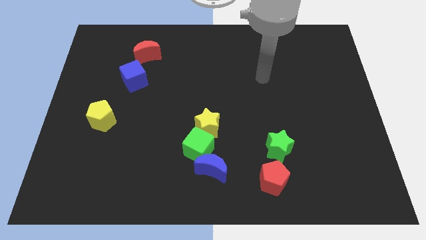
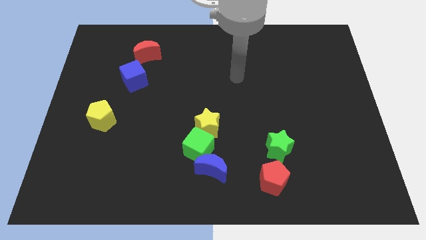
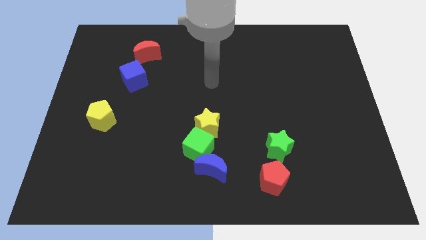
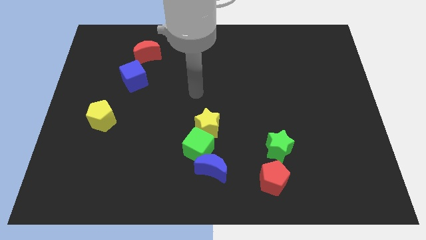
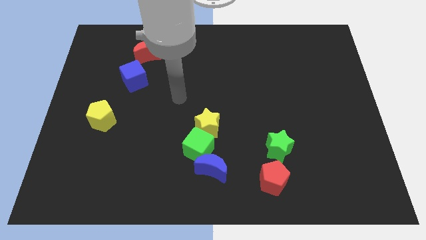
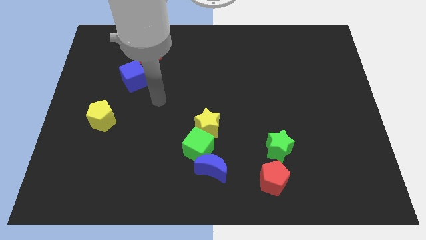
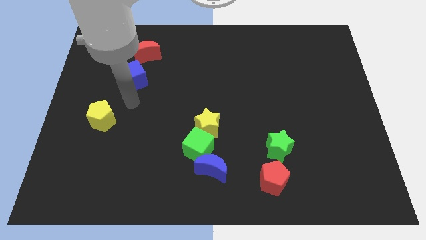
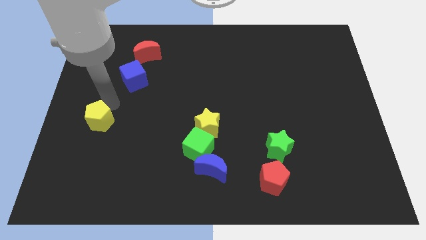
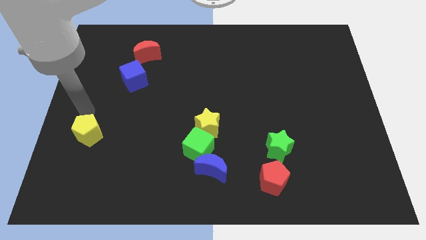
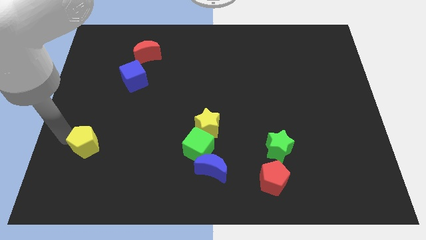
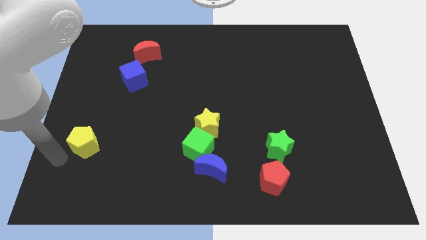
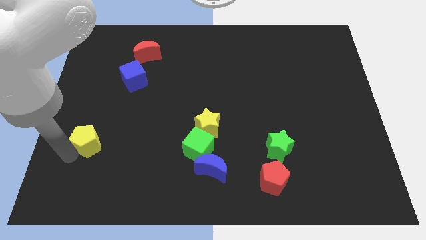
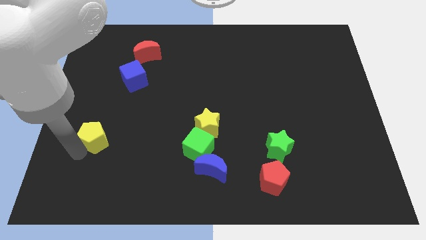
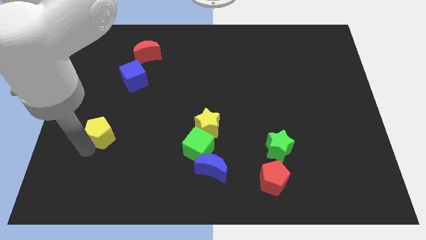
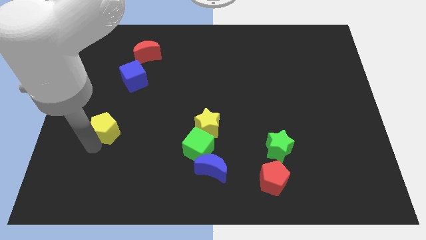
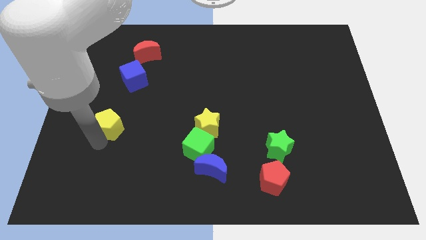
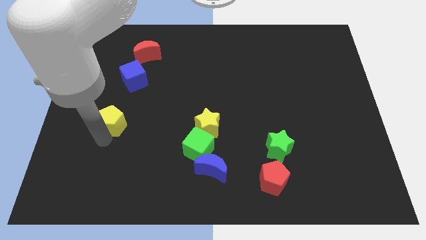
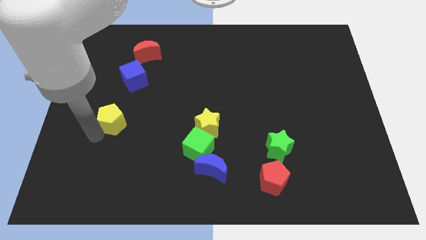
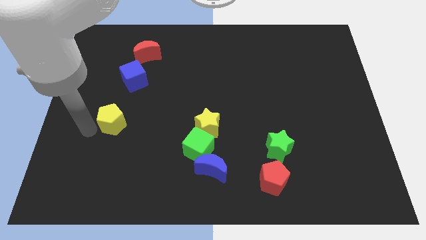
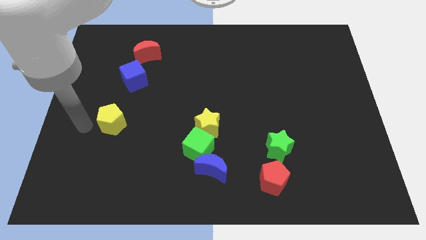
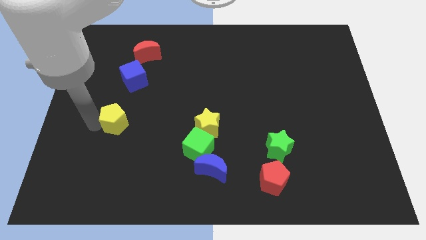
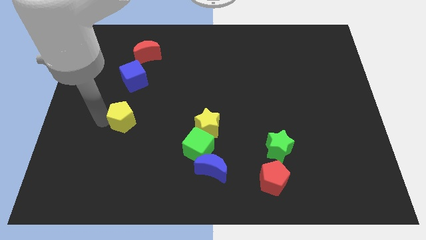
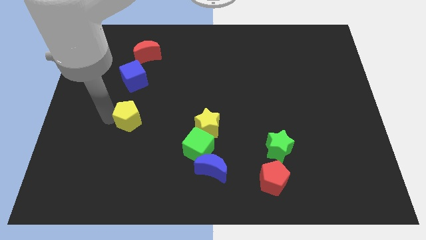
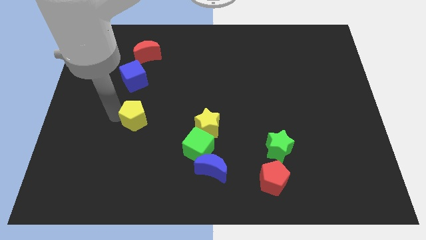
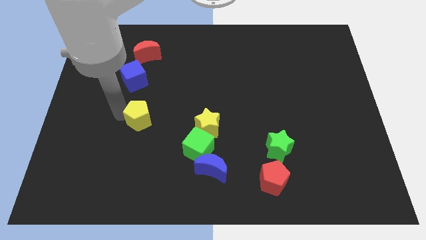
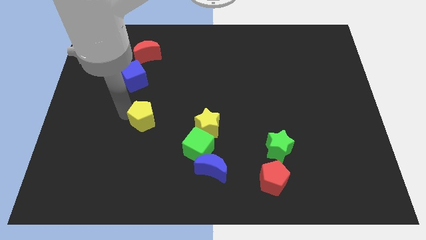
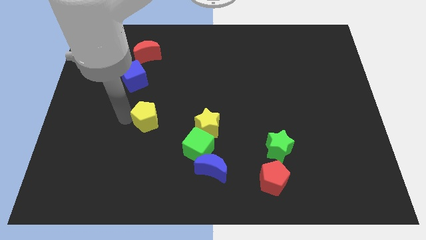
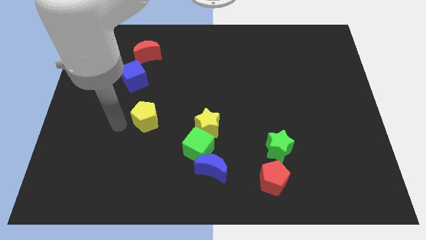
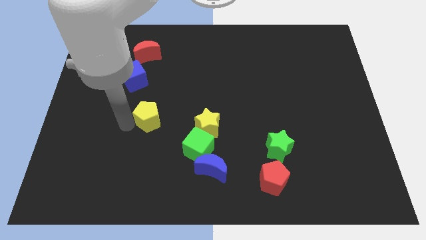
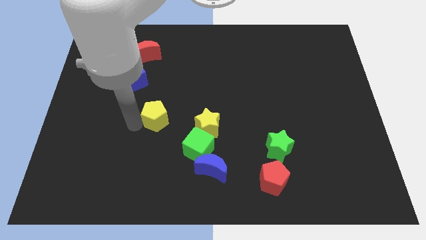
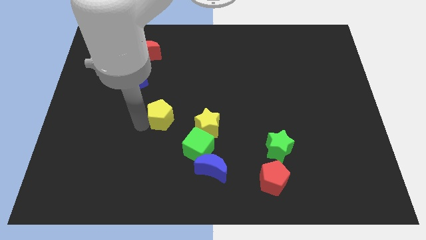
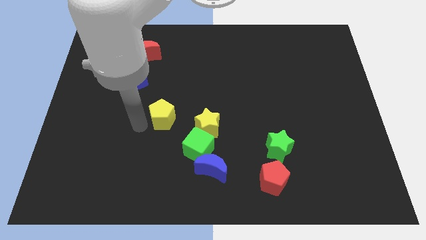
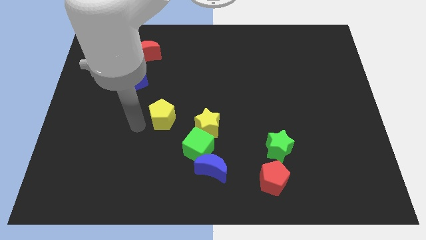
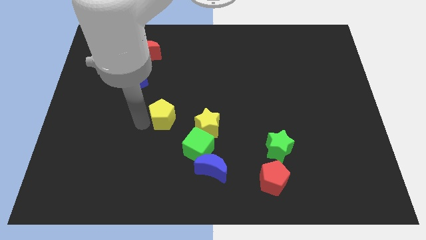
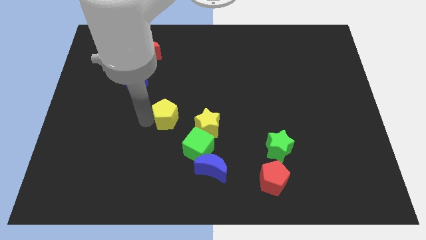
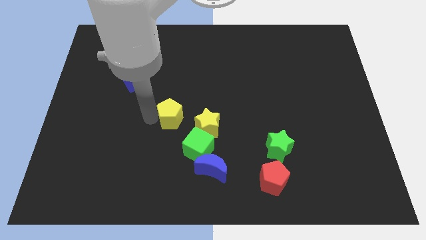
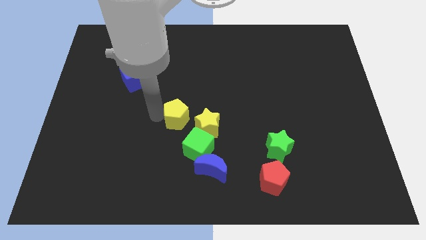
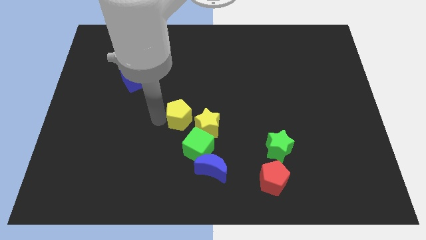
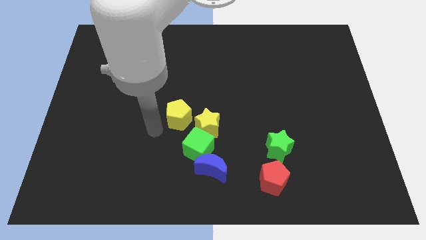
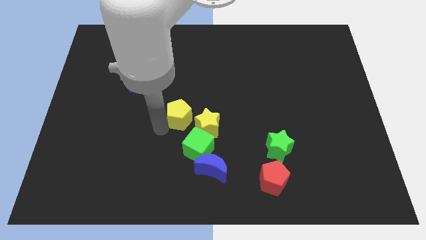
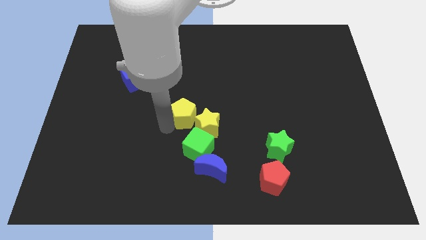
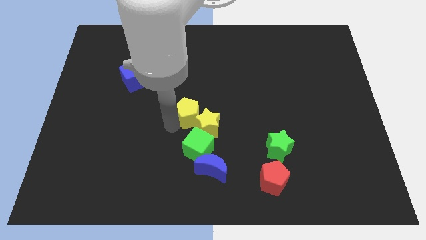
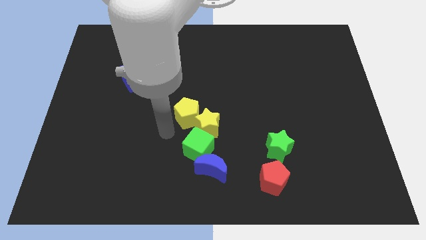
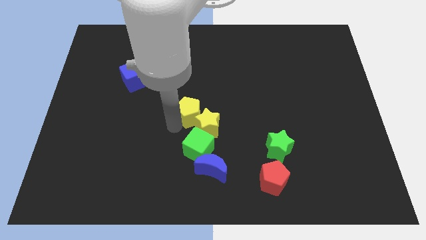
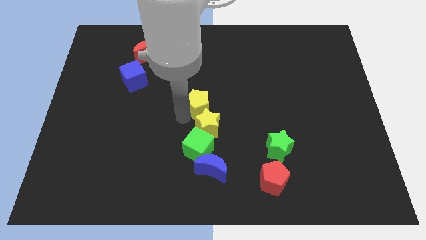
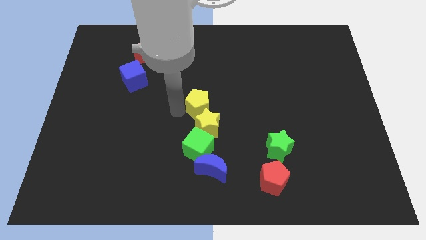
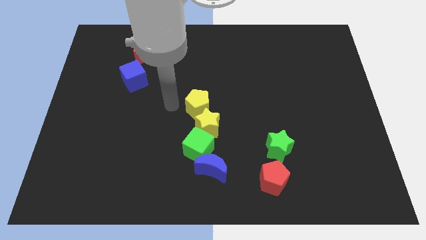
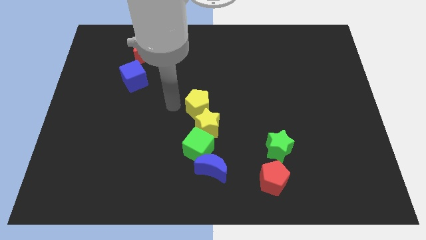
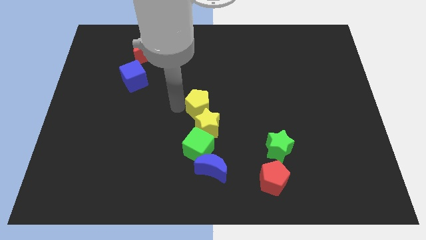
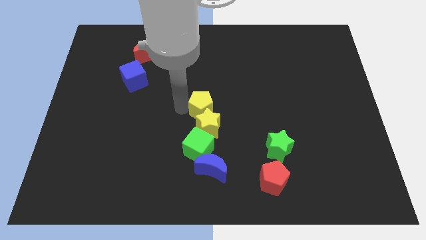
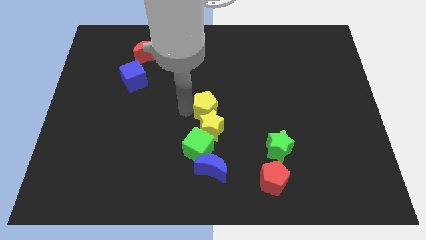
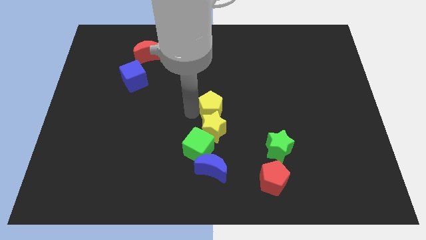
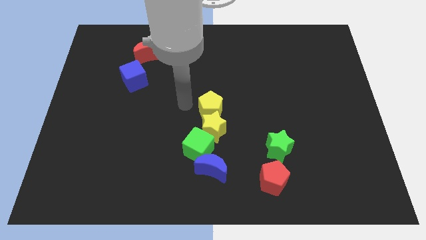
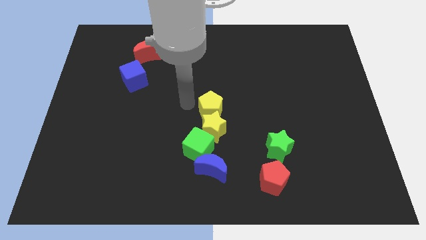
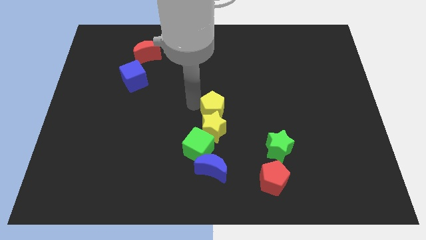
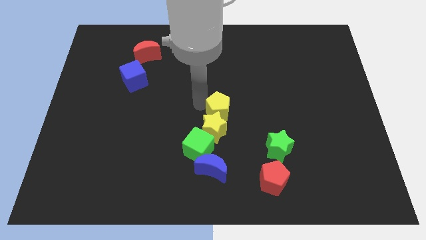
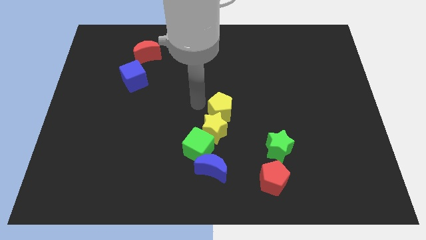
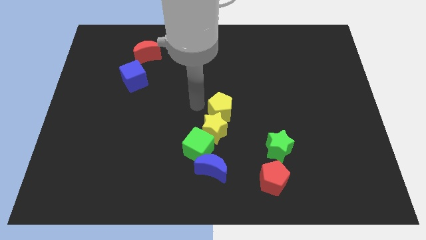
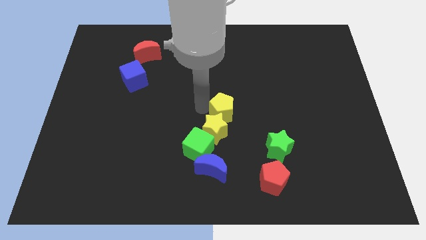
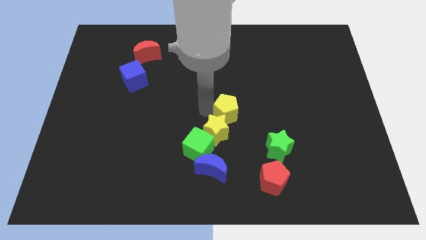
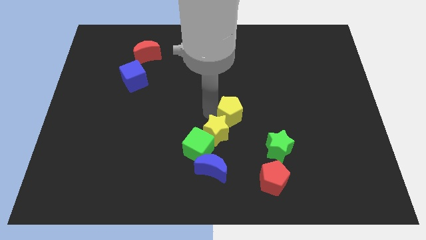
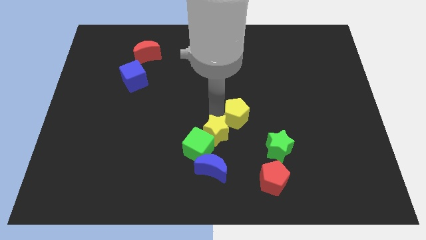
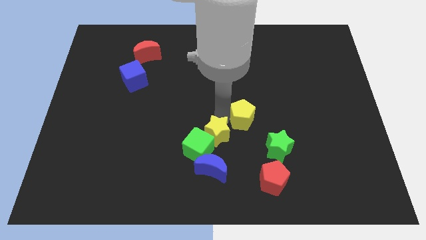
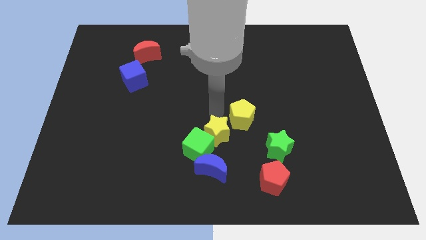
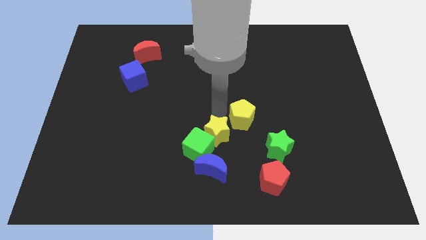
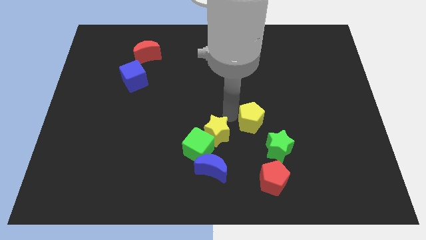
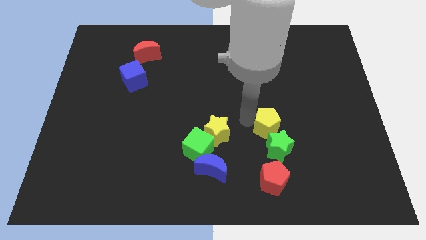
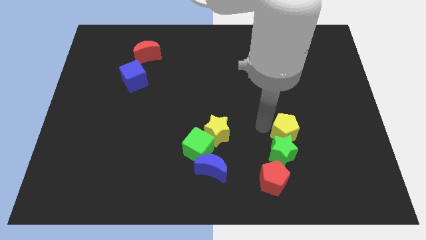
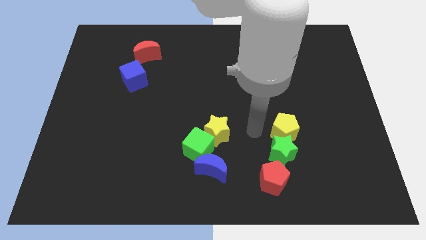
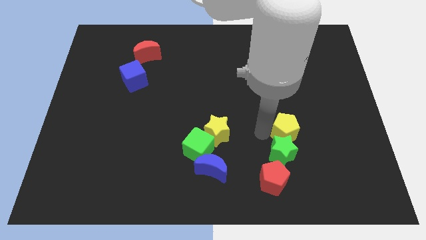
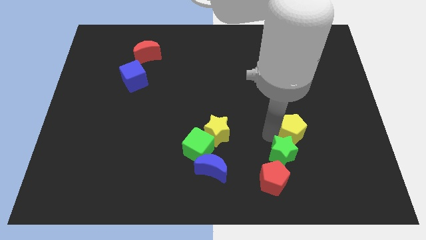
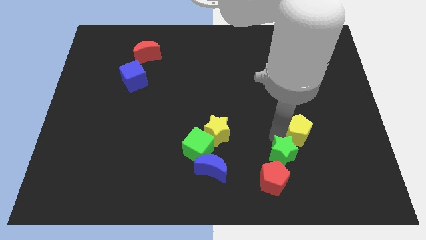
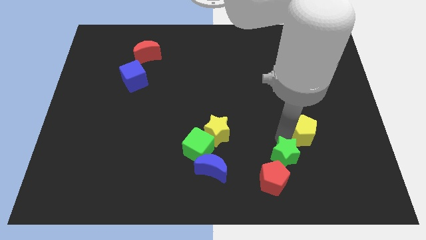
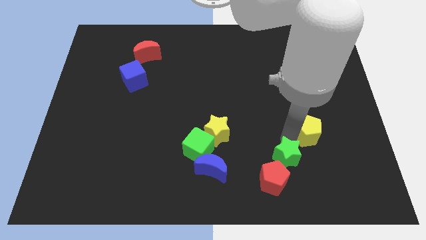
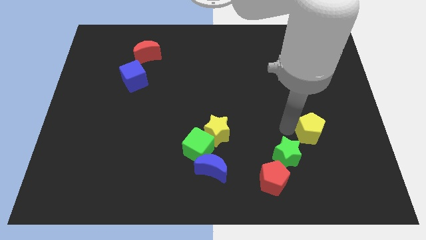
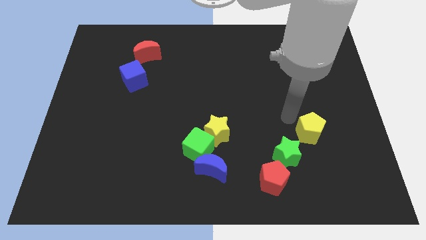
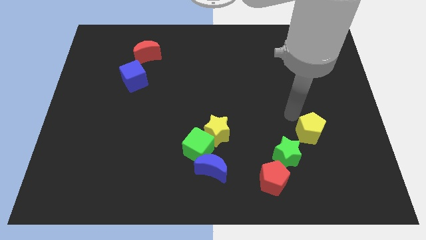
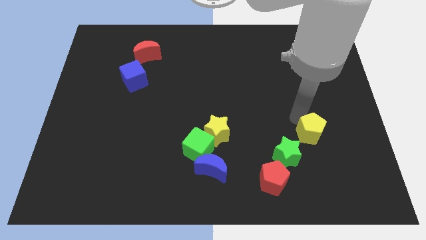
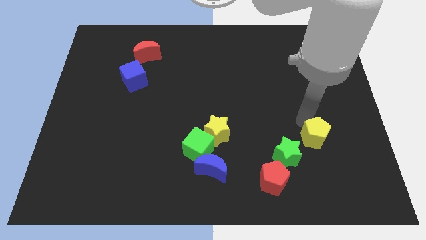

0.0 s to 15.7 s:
slide the yellow pentagon to the right of the green star
